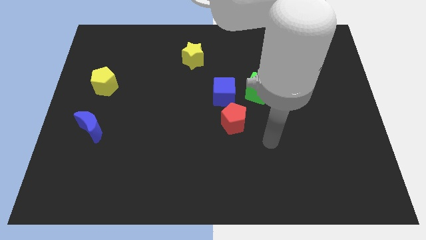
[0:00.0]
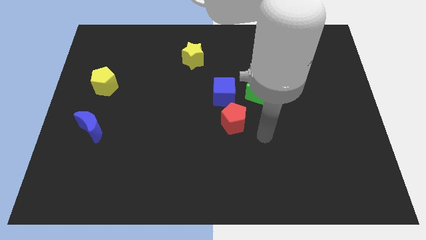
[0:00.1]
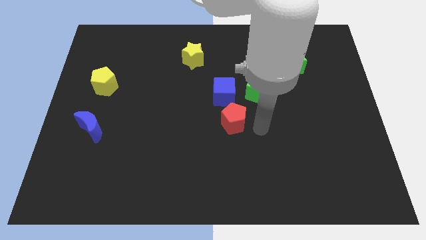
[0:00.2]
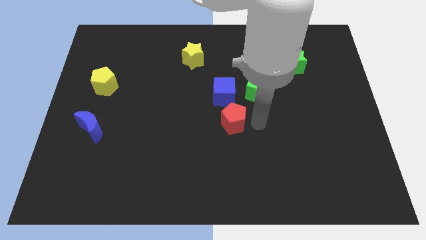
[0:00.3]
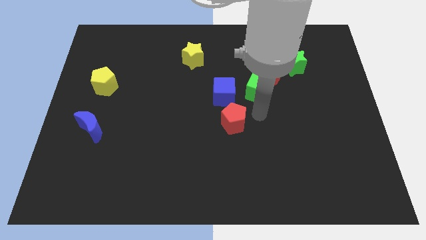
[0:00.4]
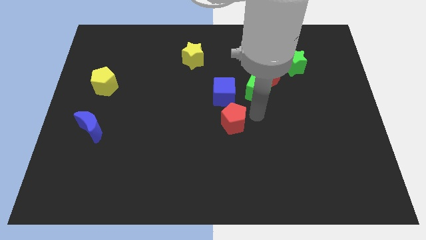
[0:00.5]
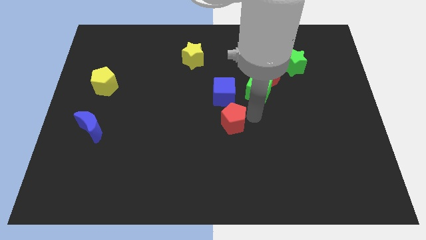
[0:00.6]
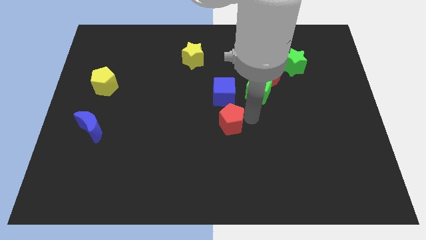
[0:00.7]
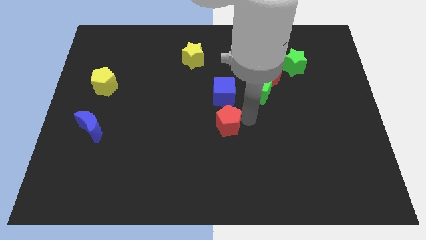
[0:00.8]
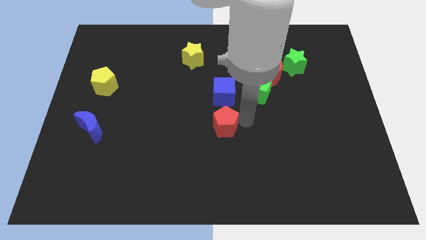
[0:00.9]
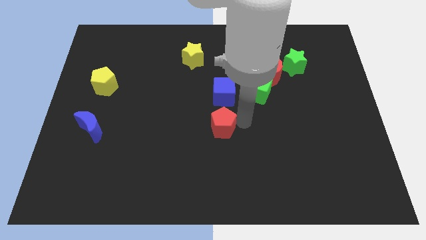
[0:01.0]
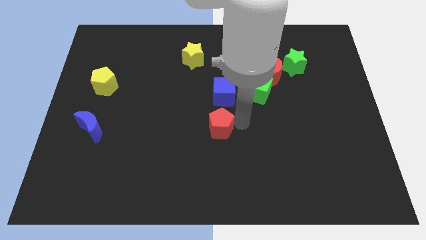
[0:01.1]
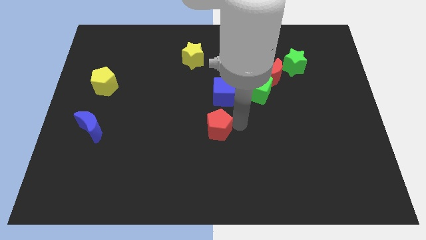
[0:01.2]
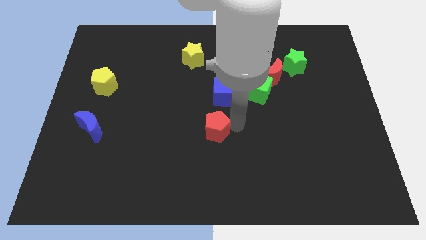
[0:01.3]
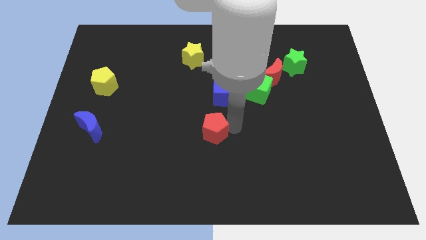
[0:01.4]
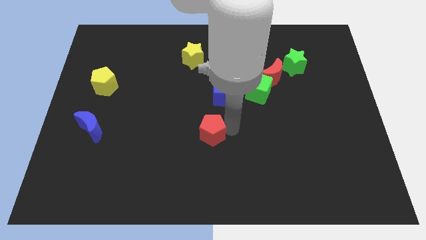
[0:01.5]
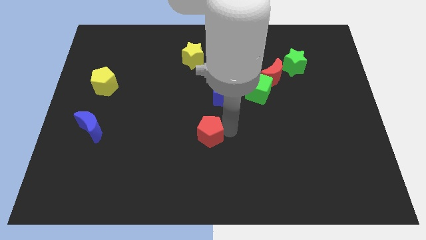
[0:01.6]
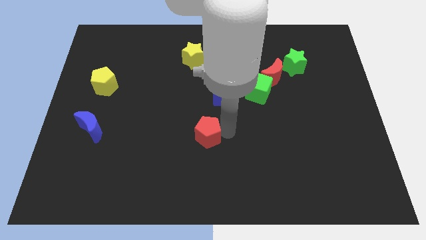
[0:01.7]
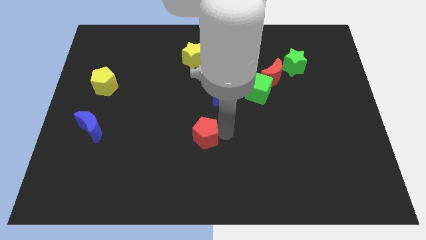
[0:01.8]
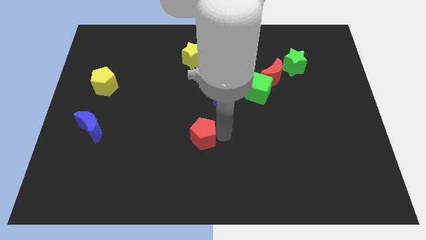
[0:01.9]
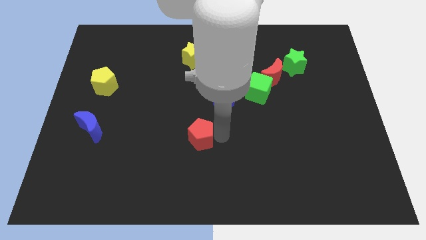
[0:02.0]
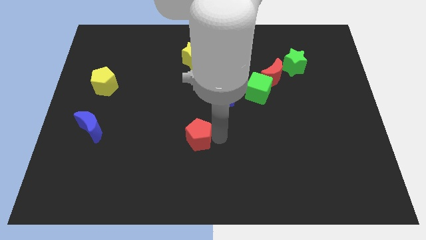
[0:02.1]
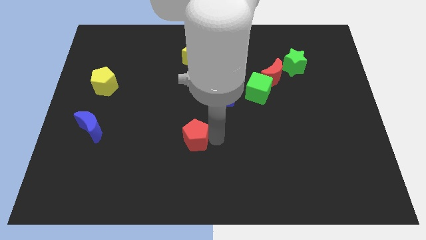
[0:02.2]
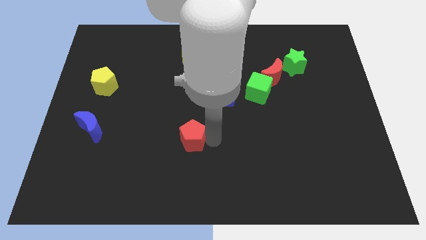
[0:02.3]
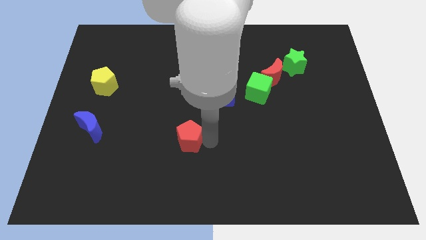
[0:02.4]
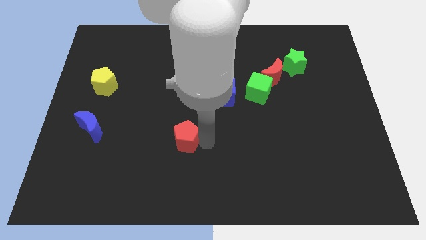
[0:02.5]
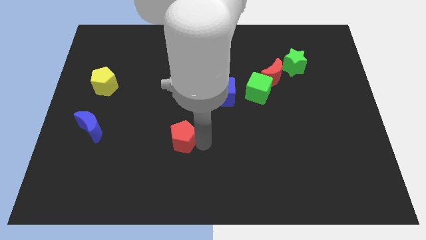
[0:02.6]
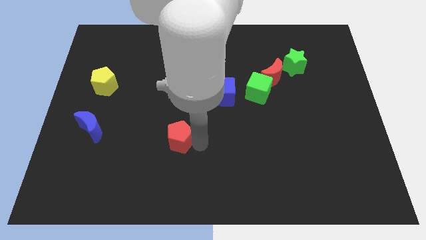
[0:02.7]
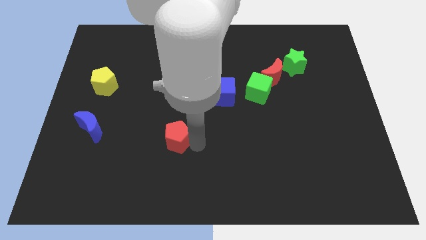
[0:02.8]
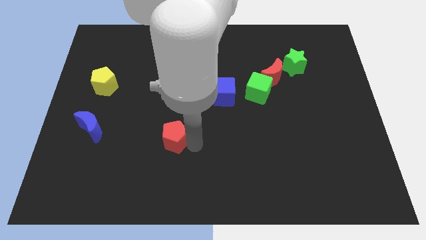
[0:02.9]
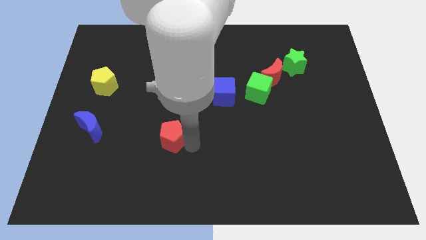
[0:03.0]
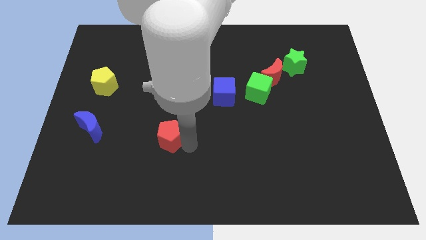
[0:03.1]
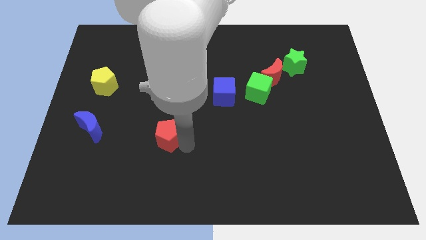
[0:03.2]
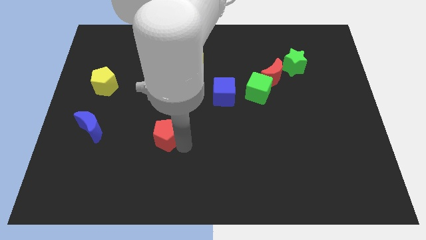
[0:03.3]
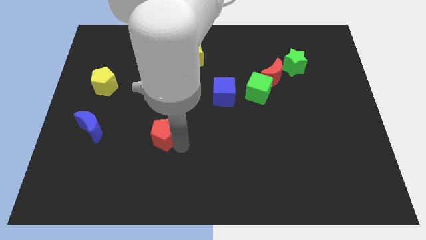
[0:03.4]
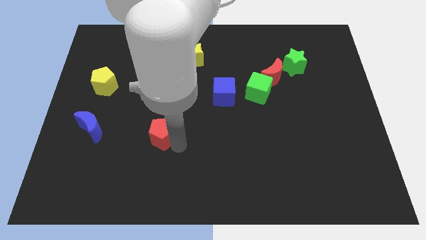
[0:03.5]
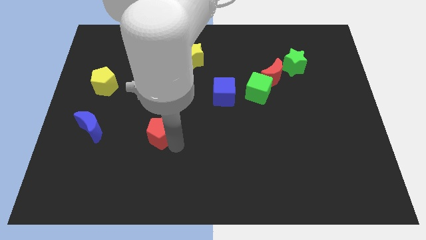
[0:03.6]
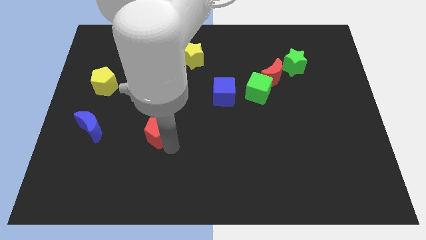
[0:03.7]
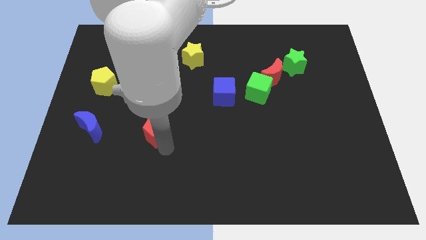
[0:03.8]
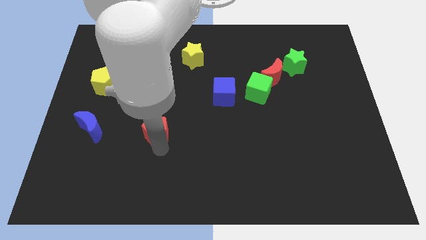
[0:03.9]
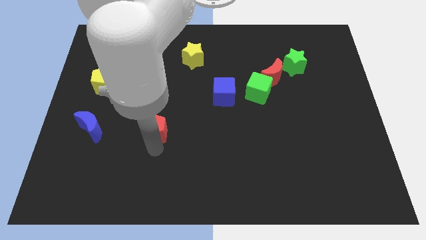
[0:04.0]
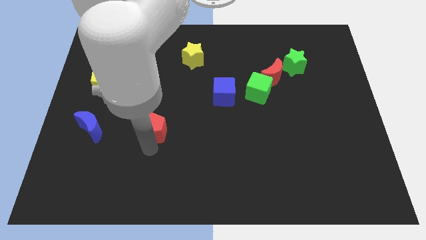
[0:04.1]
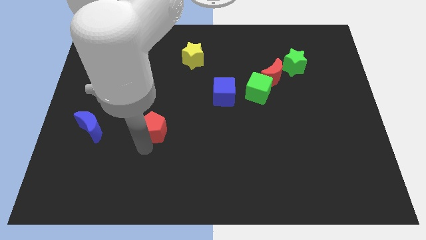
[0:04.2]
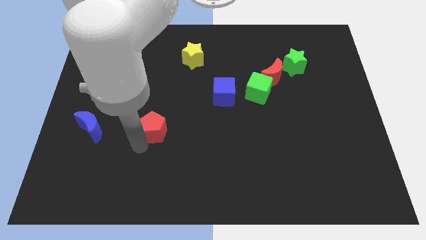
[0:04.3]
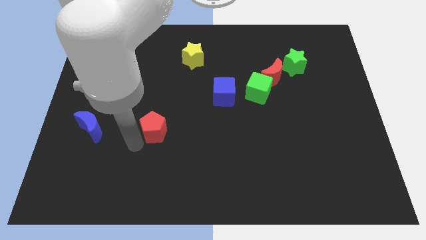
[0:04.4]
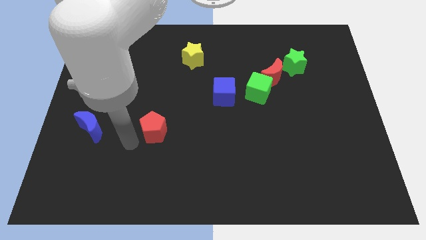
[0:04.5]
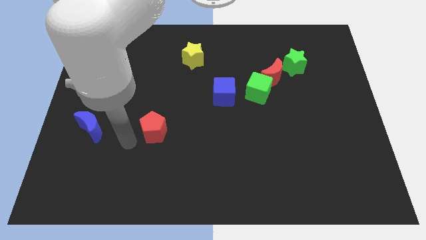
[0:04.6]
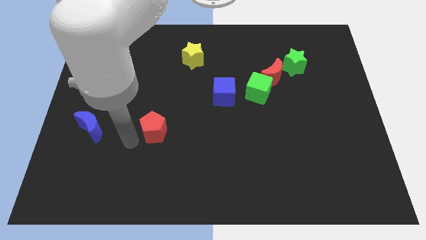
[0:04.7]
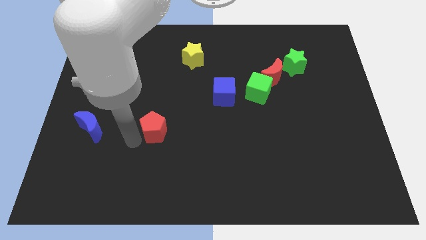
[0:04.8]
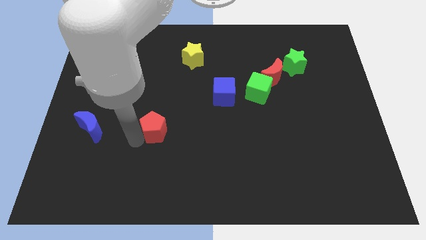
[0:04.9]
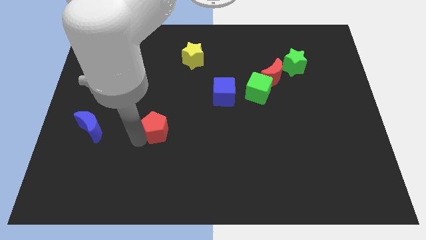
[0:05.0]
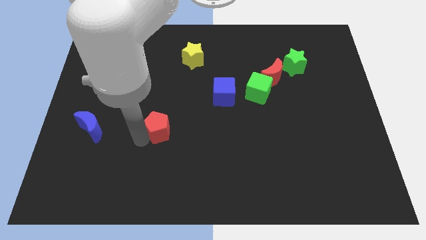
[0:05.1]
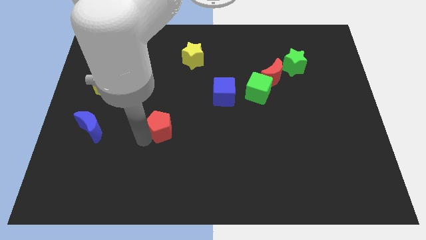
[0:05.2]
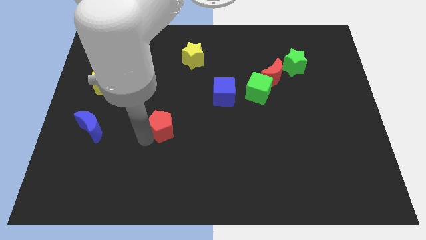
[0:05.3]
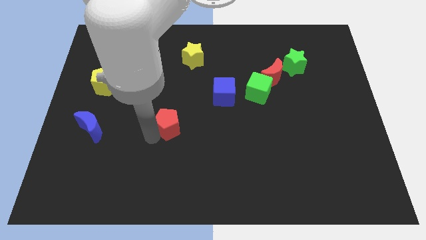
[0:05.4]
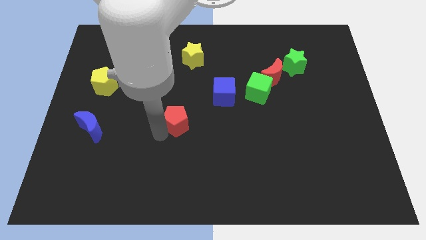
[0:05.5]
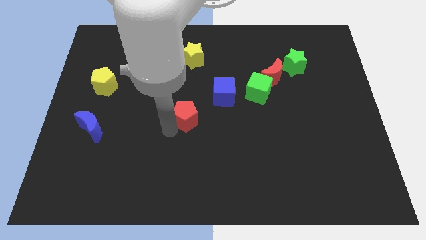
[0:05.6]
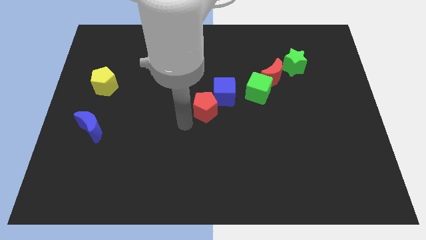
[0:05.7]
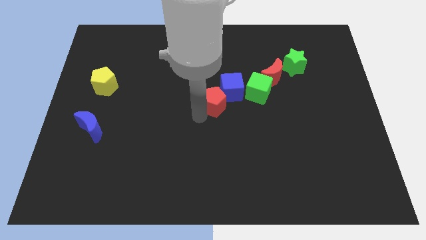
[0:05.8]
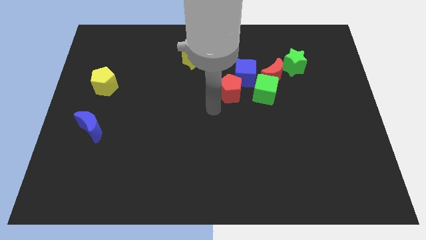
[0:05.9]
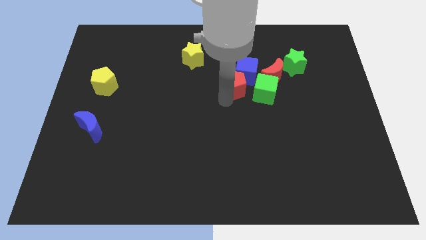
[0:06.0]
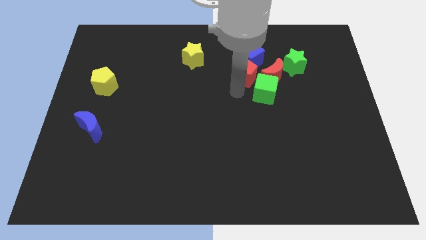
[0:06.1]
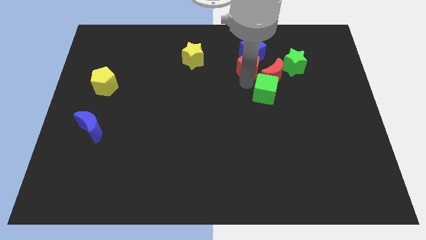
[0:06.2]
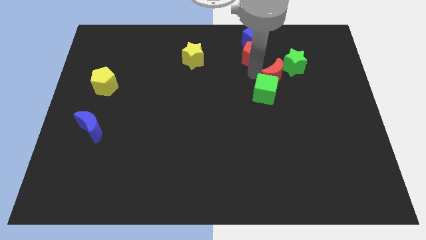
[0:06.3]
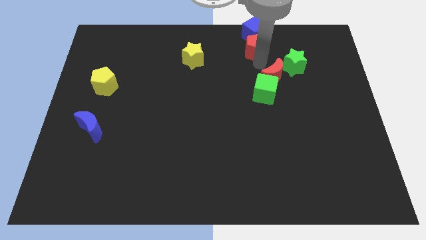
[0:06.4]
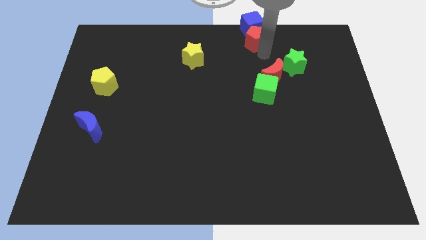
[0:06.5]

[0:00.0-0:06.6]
put the red pentagon to the top side
